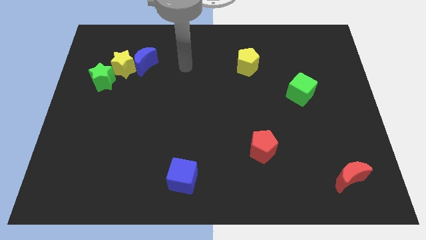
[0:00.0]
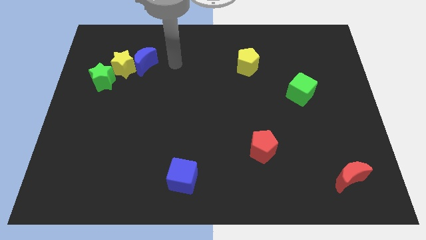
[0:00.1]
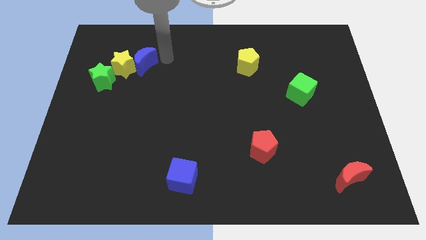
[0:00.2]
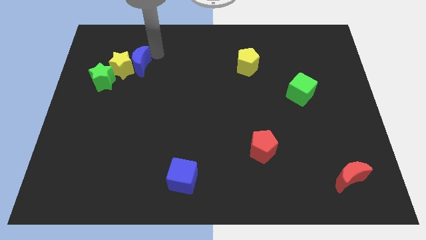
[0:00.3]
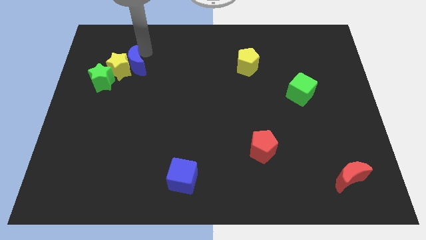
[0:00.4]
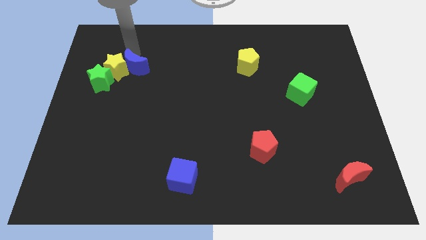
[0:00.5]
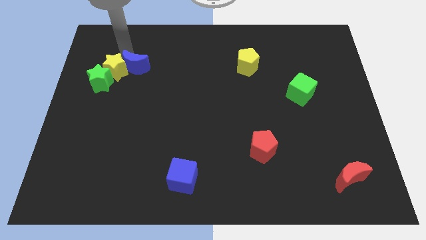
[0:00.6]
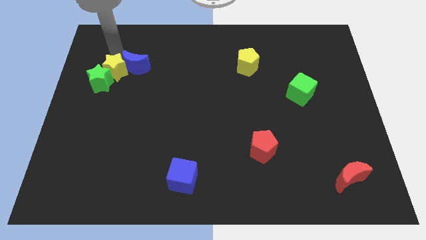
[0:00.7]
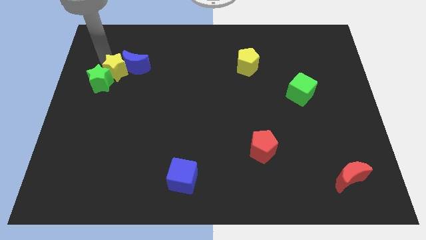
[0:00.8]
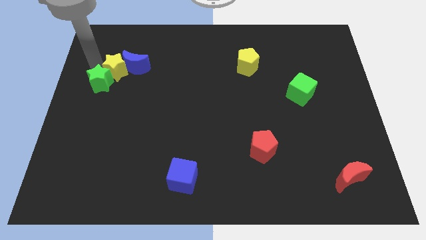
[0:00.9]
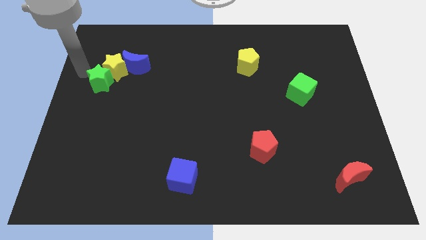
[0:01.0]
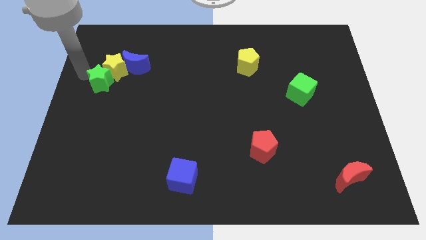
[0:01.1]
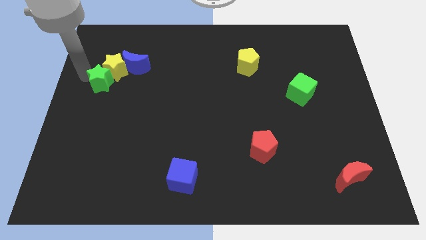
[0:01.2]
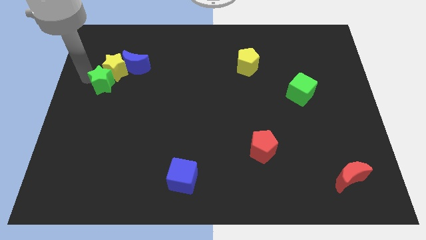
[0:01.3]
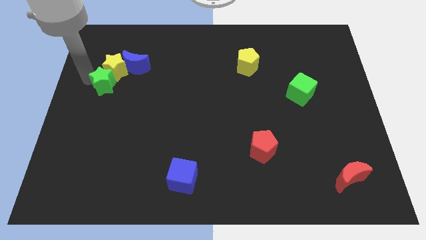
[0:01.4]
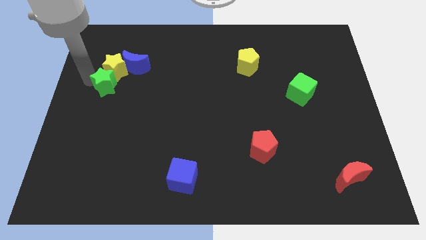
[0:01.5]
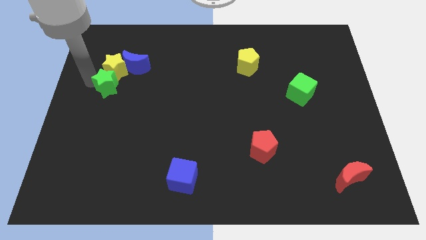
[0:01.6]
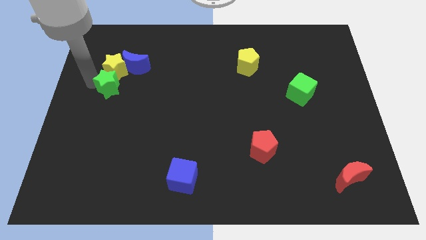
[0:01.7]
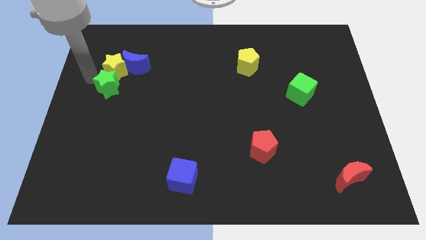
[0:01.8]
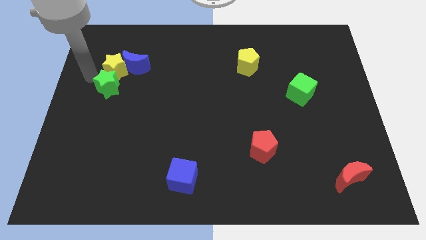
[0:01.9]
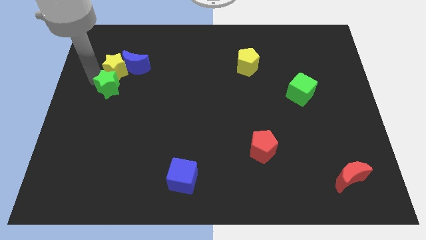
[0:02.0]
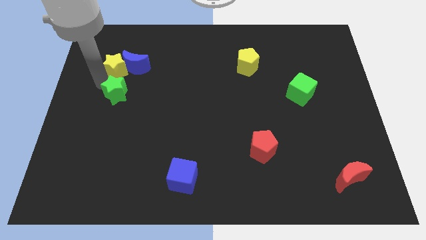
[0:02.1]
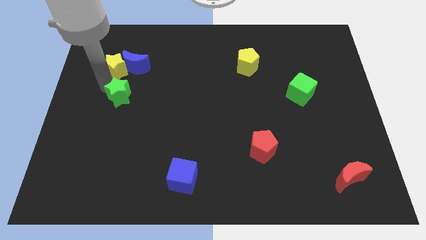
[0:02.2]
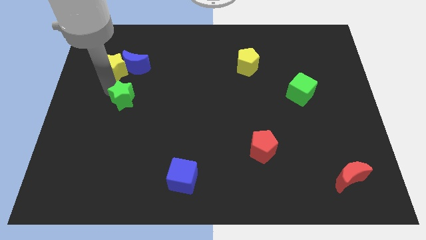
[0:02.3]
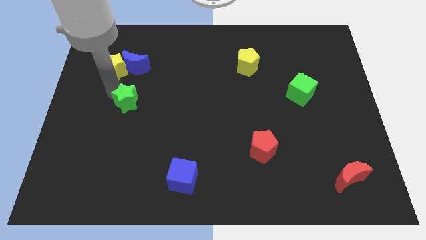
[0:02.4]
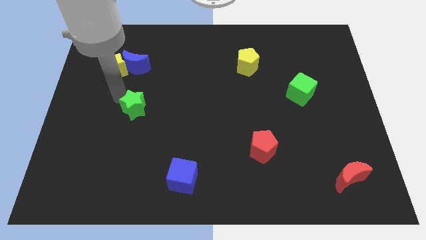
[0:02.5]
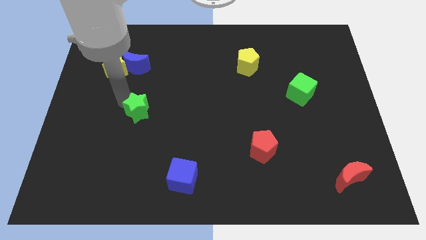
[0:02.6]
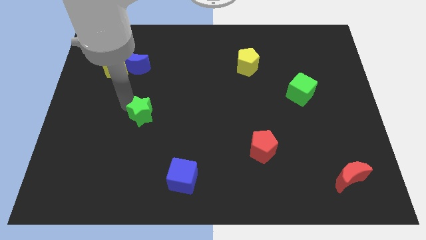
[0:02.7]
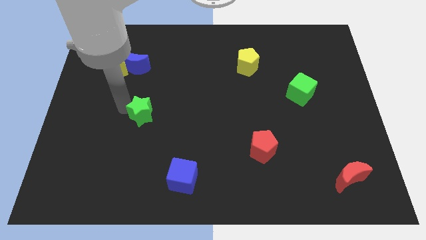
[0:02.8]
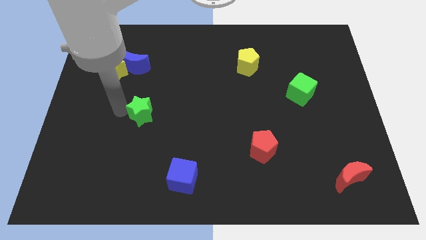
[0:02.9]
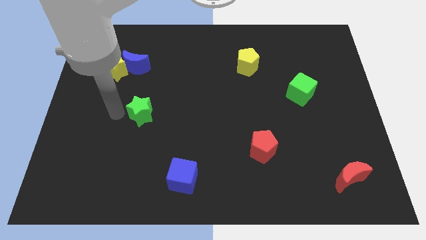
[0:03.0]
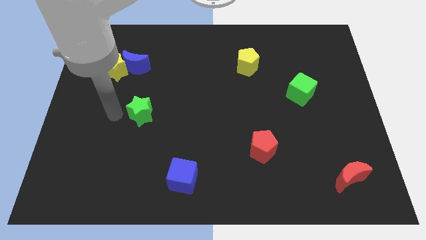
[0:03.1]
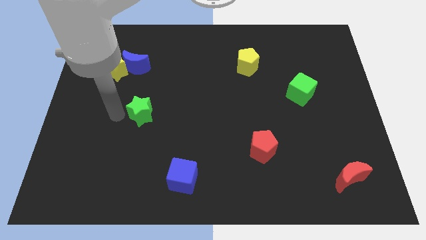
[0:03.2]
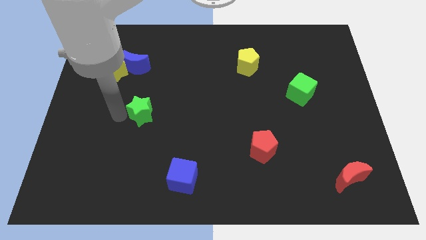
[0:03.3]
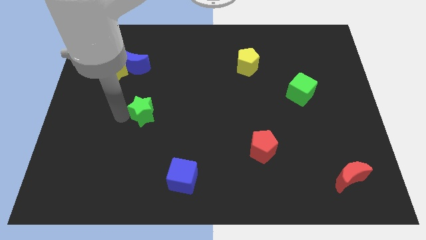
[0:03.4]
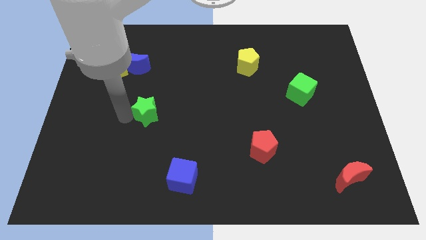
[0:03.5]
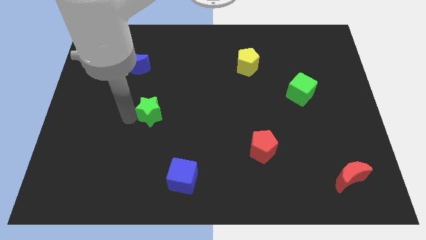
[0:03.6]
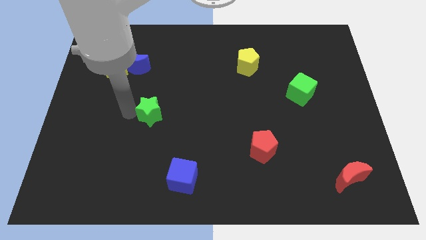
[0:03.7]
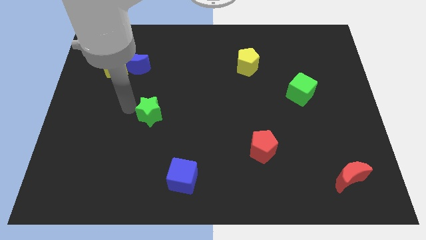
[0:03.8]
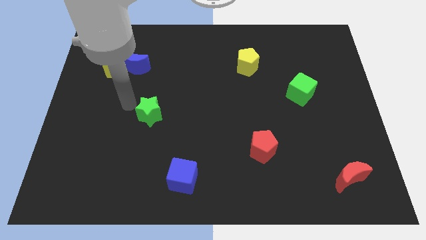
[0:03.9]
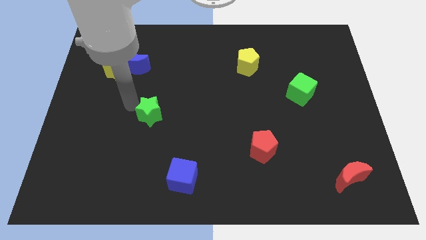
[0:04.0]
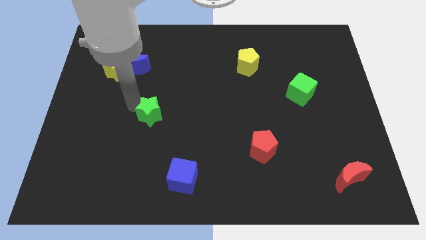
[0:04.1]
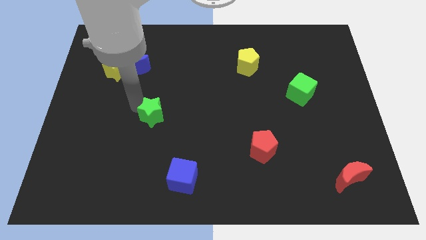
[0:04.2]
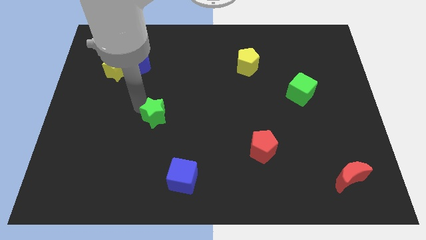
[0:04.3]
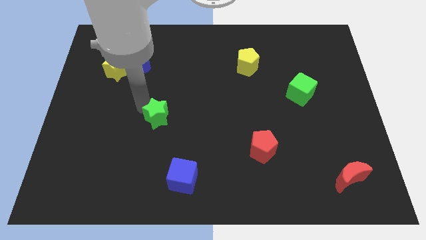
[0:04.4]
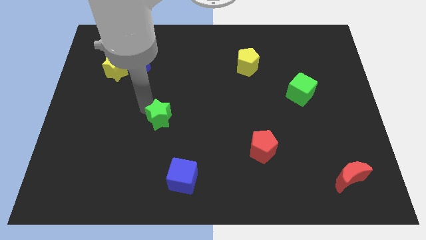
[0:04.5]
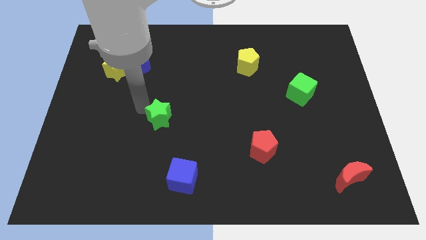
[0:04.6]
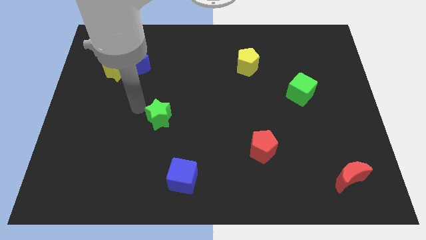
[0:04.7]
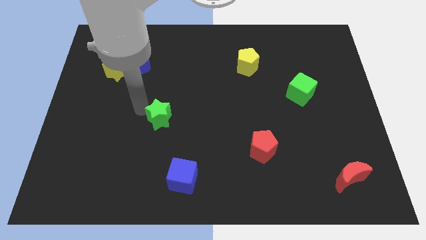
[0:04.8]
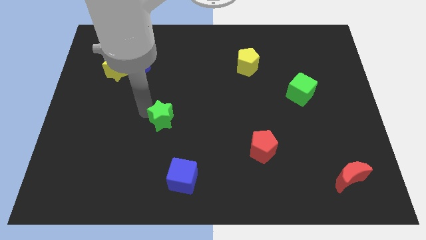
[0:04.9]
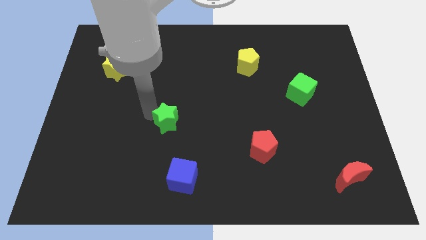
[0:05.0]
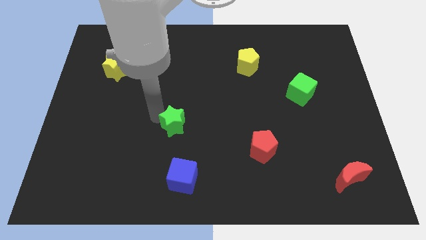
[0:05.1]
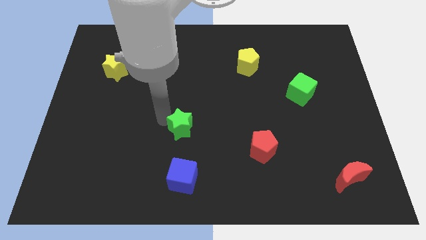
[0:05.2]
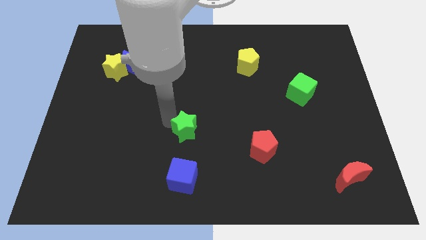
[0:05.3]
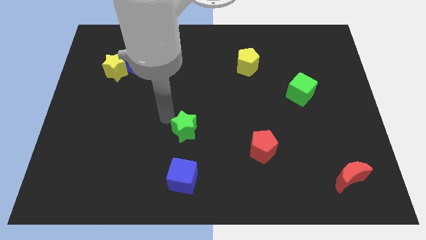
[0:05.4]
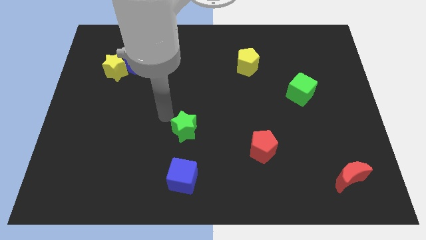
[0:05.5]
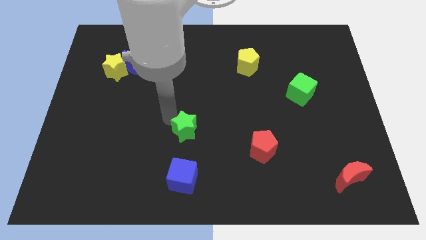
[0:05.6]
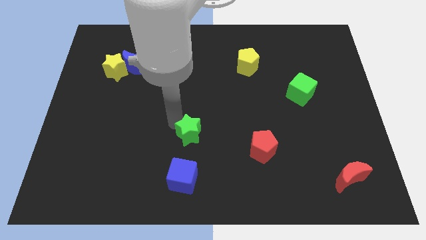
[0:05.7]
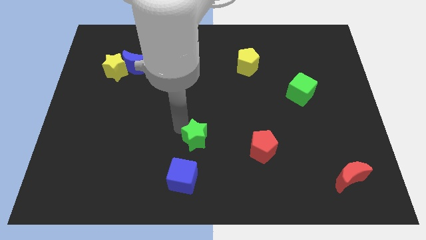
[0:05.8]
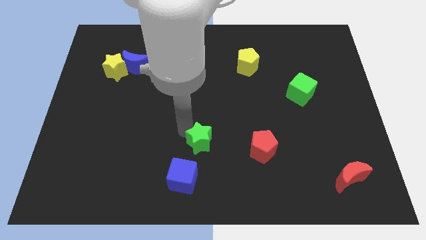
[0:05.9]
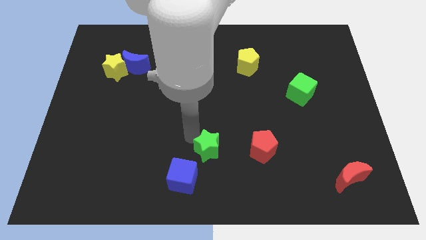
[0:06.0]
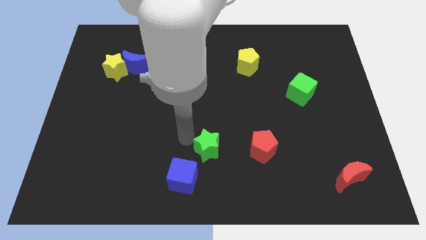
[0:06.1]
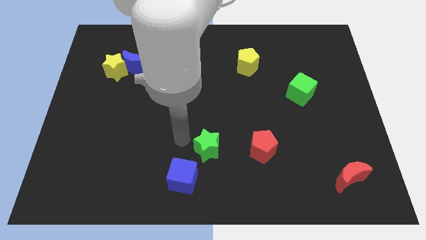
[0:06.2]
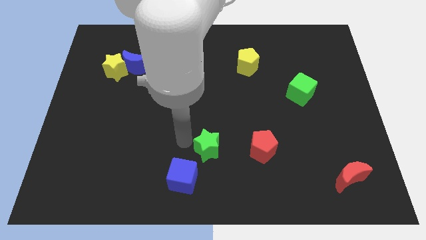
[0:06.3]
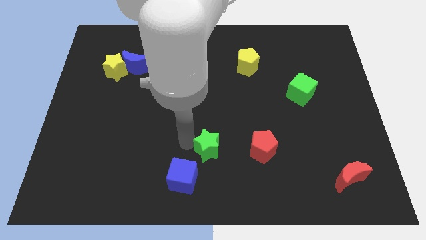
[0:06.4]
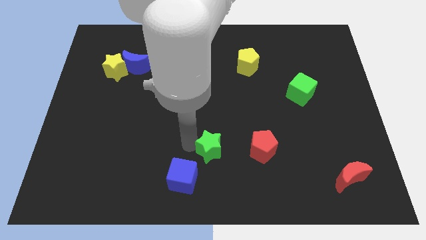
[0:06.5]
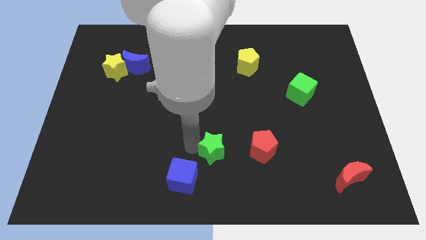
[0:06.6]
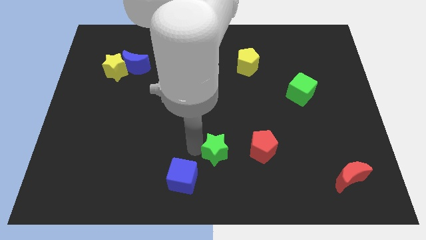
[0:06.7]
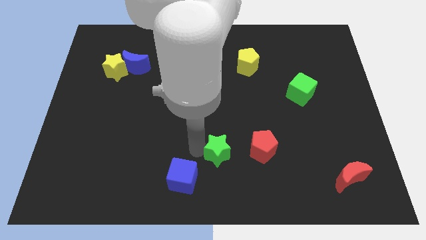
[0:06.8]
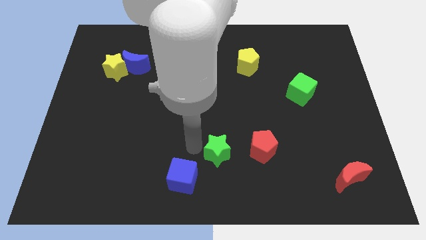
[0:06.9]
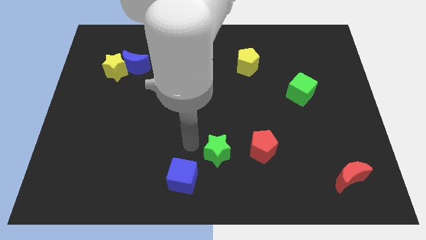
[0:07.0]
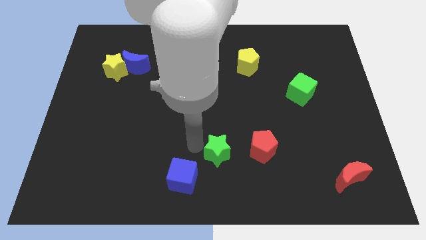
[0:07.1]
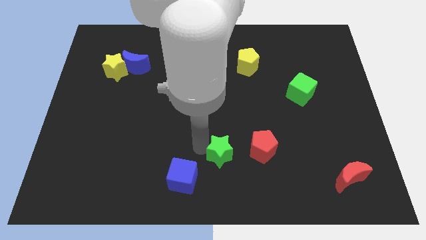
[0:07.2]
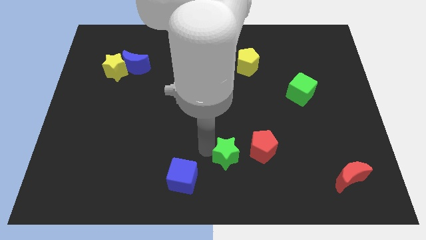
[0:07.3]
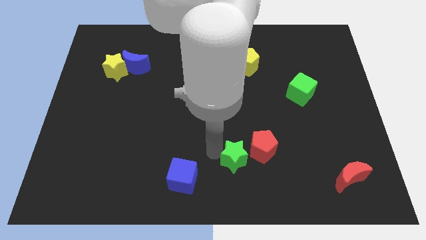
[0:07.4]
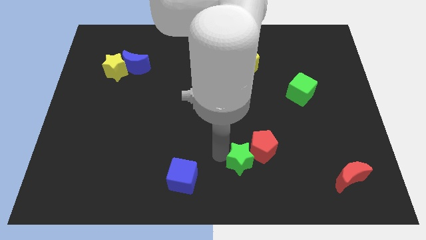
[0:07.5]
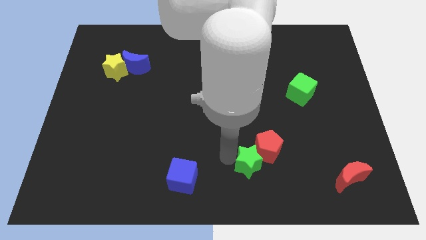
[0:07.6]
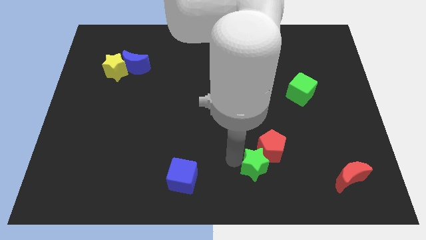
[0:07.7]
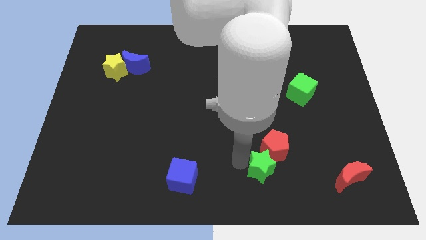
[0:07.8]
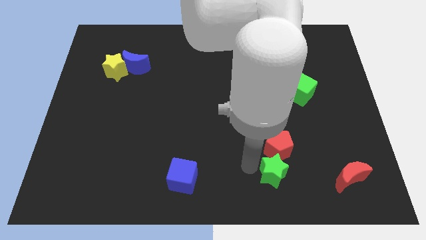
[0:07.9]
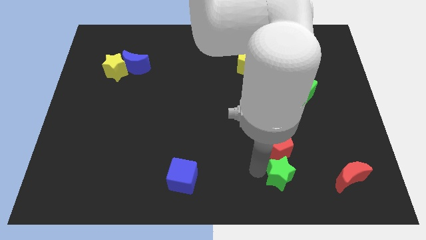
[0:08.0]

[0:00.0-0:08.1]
push the green star to the bottom right of the red pentagon
